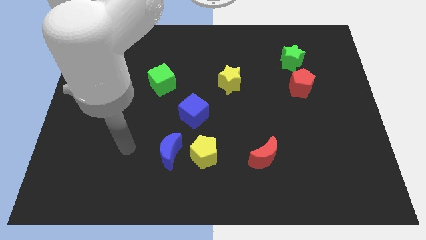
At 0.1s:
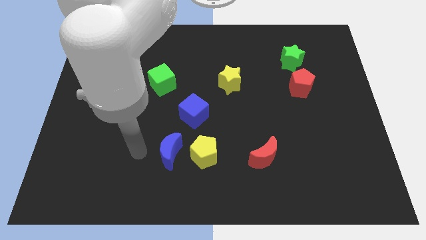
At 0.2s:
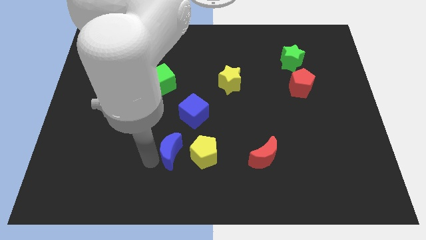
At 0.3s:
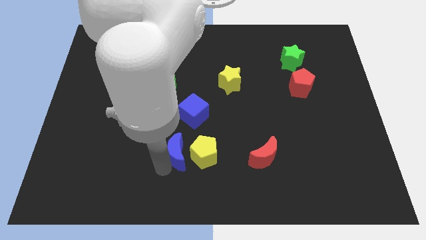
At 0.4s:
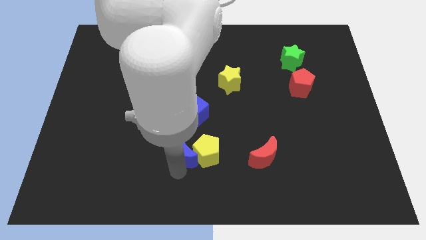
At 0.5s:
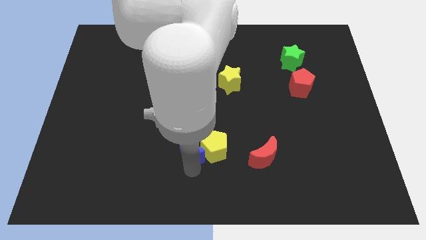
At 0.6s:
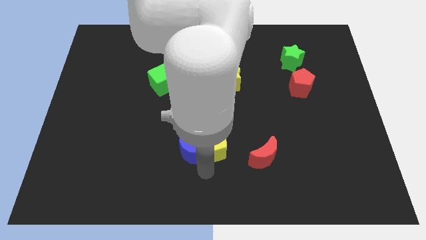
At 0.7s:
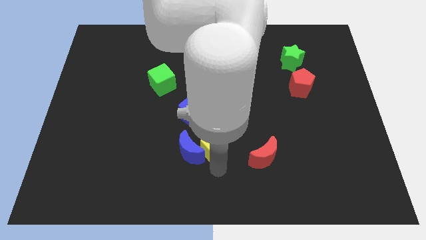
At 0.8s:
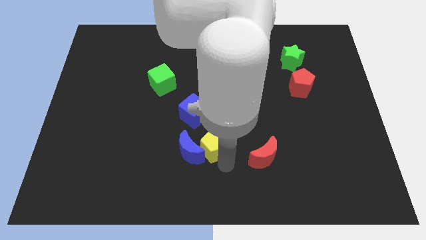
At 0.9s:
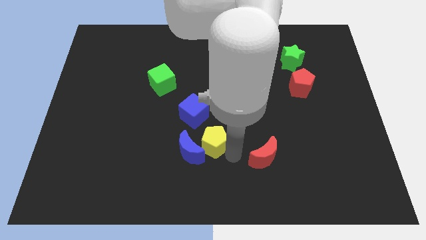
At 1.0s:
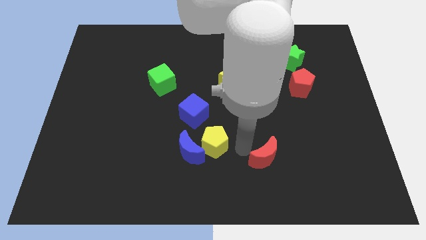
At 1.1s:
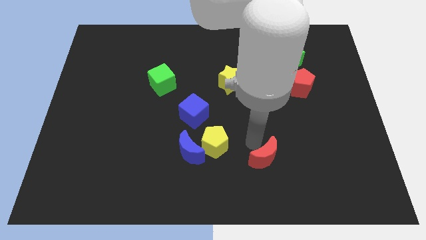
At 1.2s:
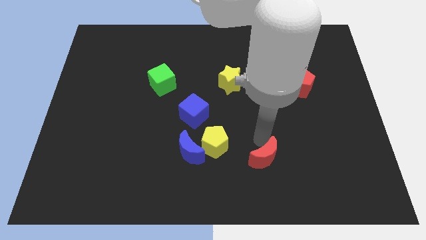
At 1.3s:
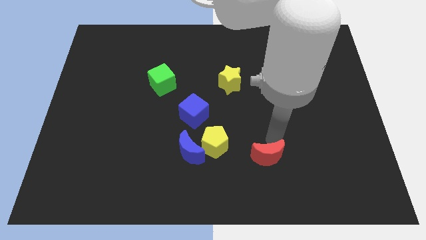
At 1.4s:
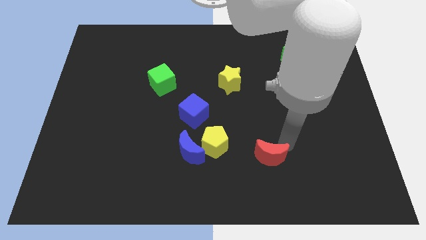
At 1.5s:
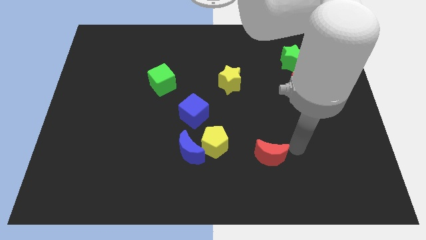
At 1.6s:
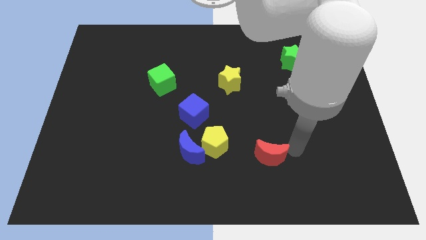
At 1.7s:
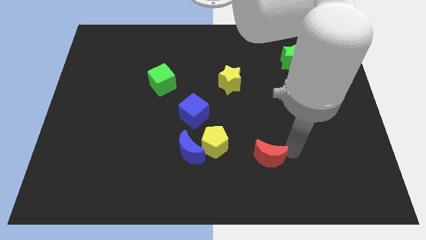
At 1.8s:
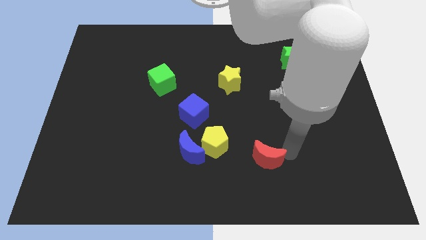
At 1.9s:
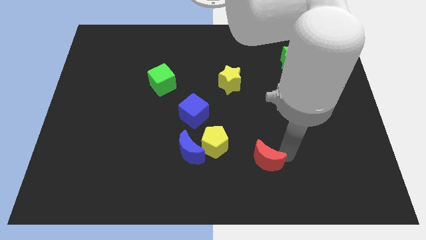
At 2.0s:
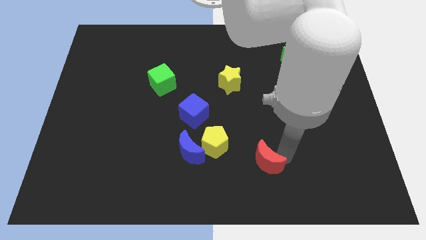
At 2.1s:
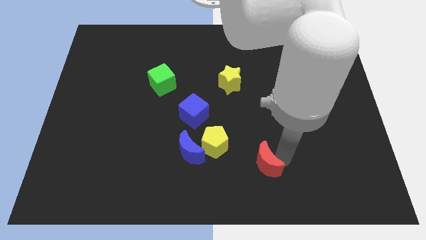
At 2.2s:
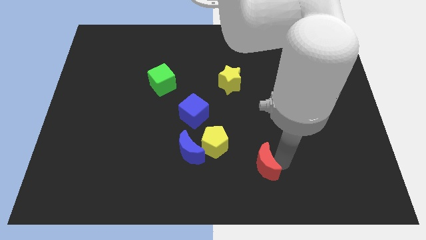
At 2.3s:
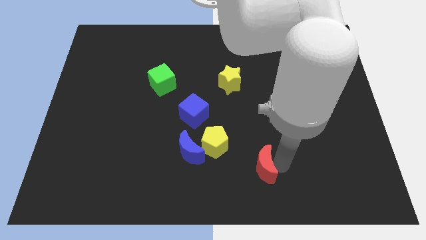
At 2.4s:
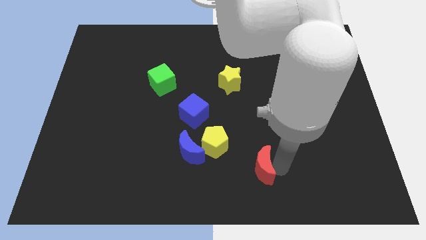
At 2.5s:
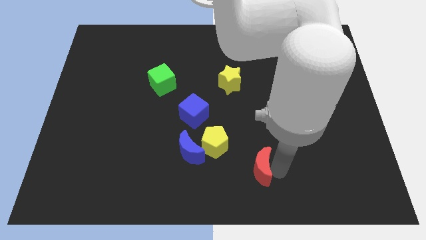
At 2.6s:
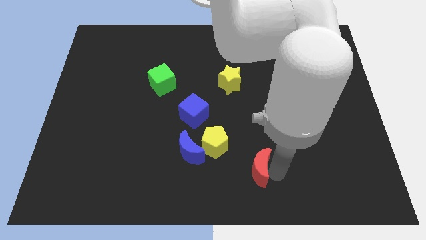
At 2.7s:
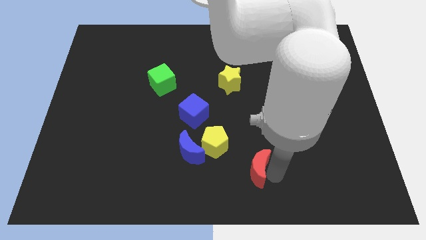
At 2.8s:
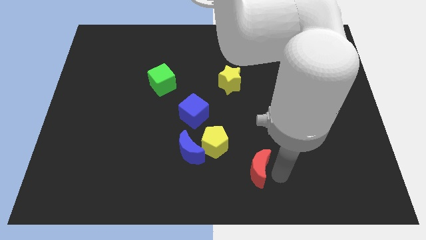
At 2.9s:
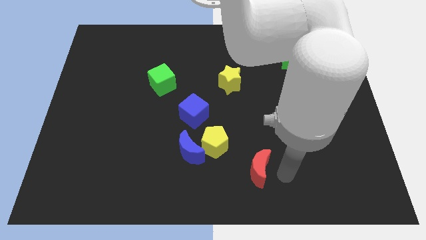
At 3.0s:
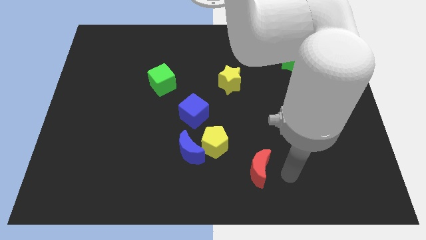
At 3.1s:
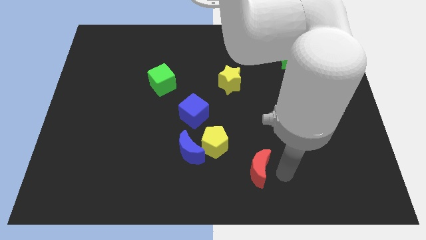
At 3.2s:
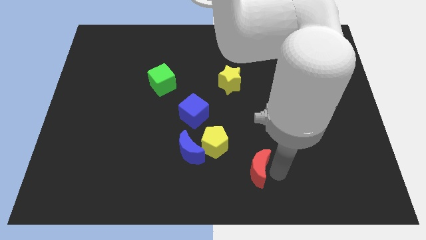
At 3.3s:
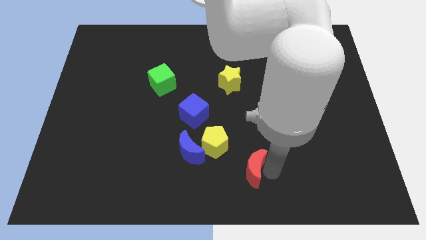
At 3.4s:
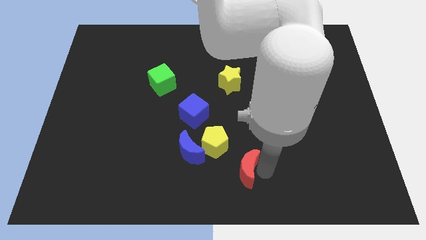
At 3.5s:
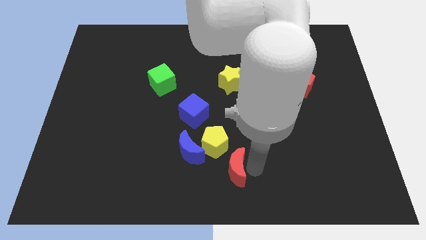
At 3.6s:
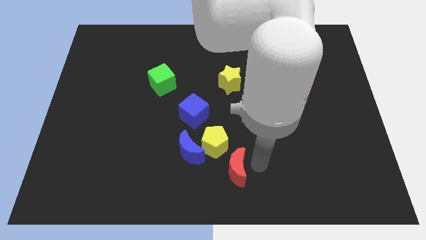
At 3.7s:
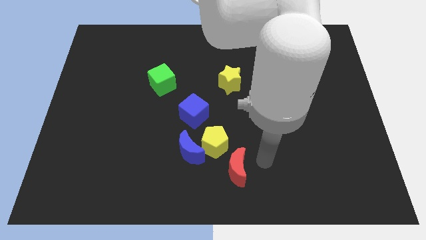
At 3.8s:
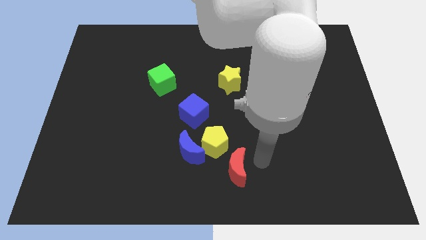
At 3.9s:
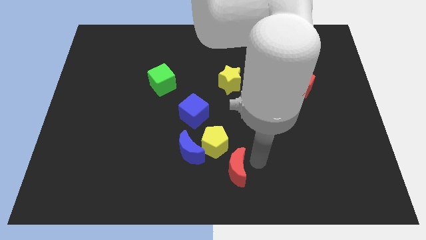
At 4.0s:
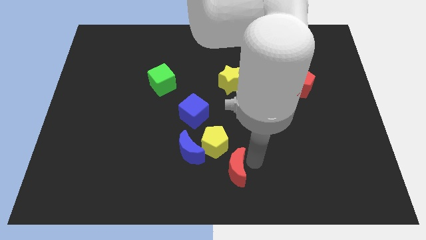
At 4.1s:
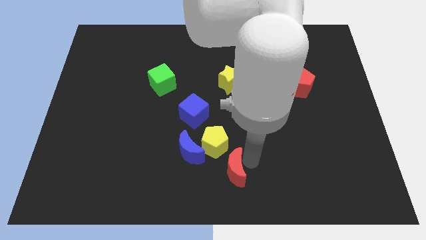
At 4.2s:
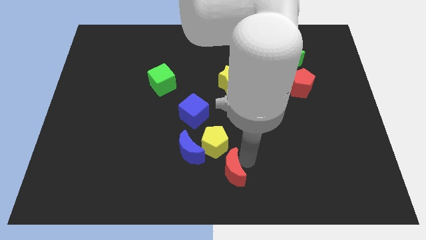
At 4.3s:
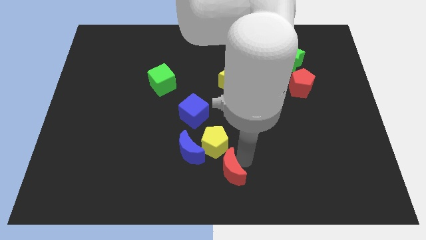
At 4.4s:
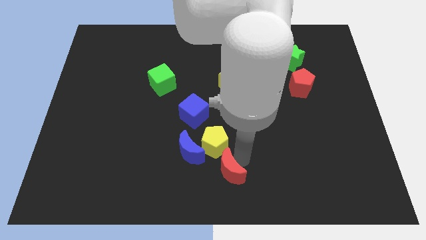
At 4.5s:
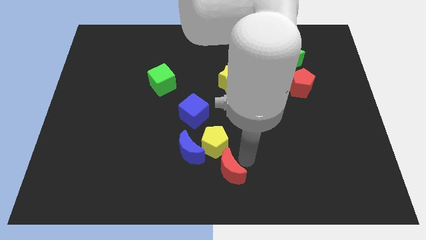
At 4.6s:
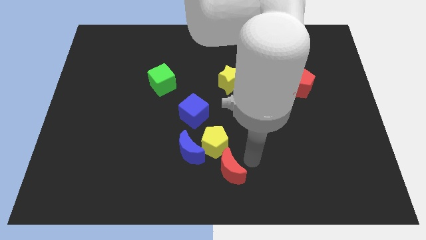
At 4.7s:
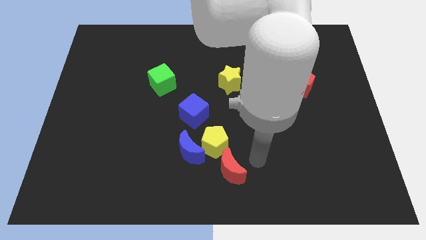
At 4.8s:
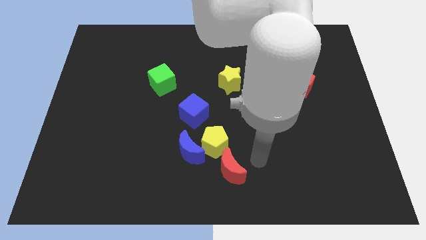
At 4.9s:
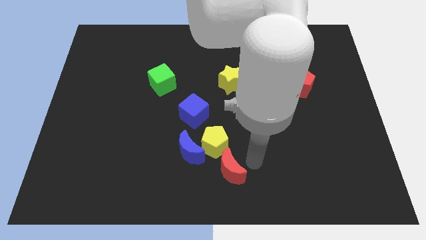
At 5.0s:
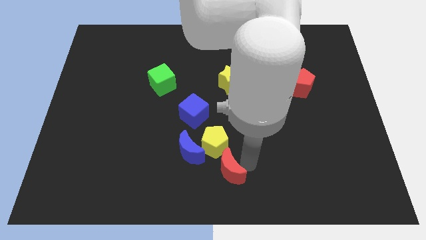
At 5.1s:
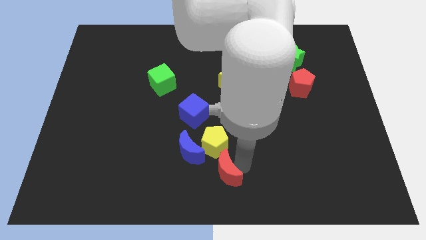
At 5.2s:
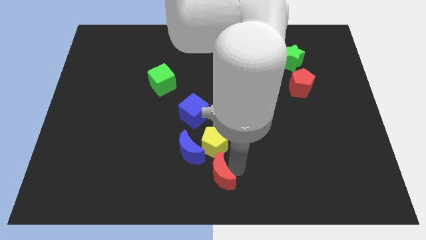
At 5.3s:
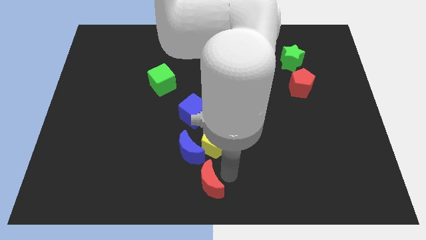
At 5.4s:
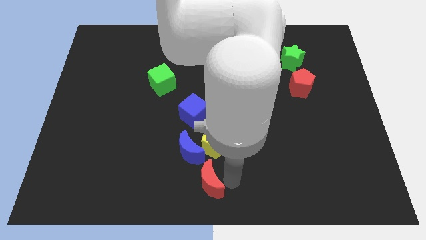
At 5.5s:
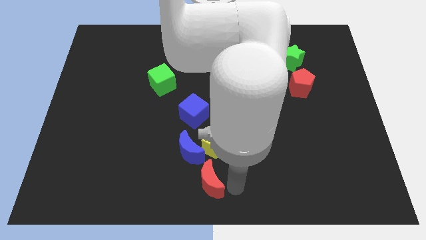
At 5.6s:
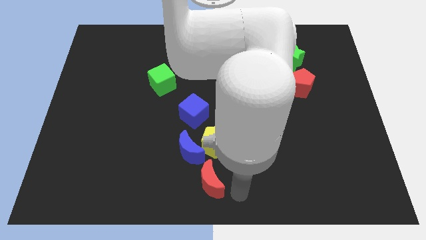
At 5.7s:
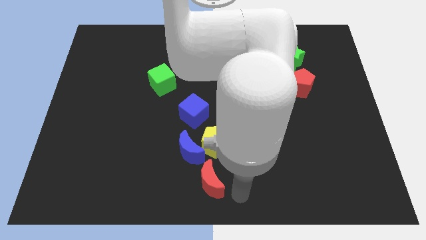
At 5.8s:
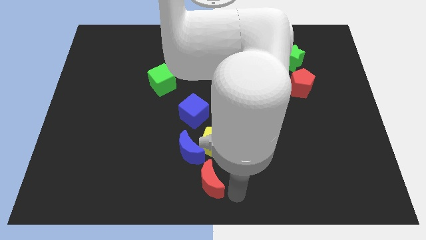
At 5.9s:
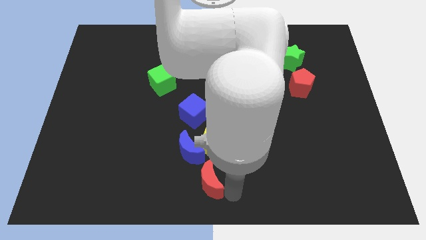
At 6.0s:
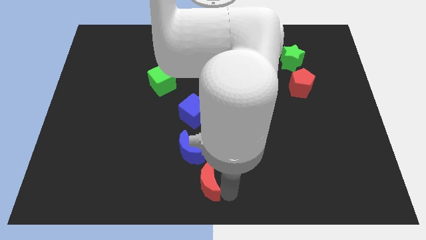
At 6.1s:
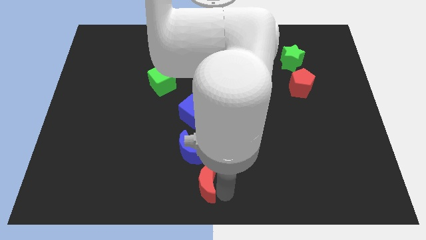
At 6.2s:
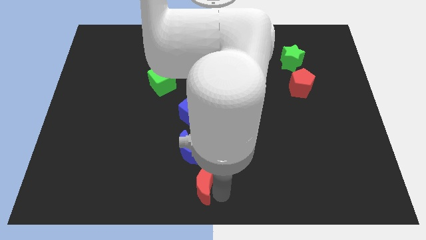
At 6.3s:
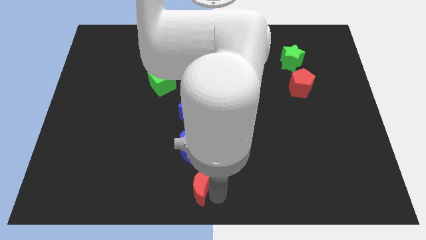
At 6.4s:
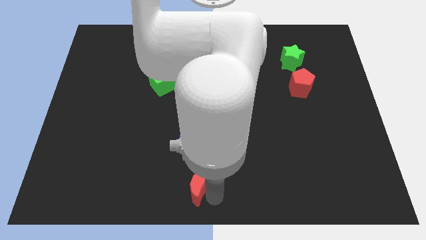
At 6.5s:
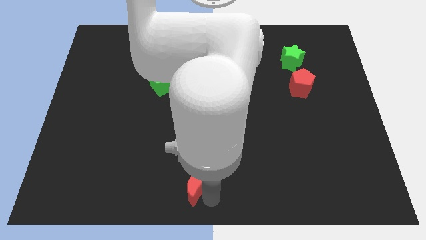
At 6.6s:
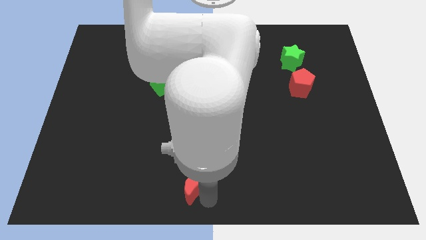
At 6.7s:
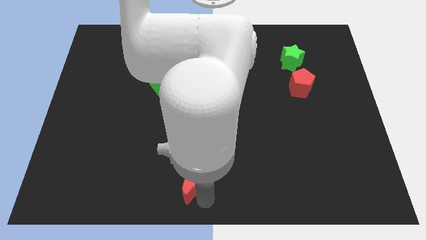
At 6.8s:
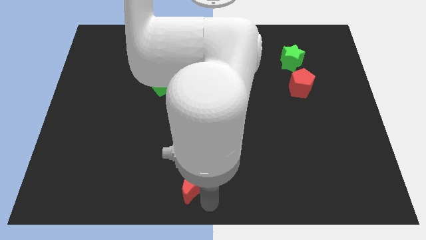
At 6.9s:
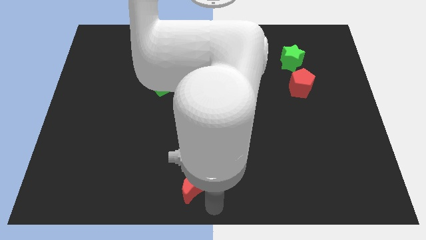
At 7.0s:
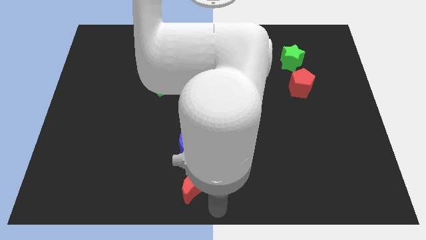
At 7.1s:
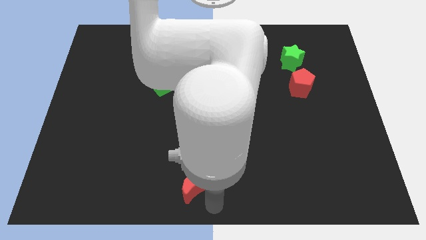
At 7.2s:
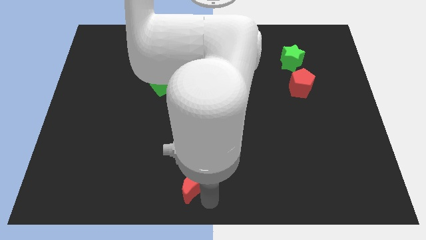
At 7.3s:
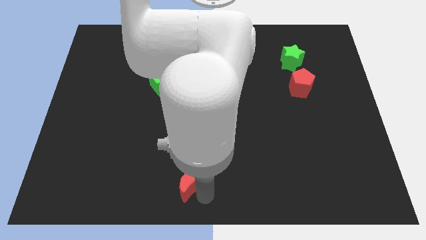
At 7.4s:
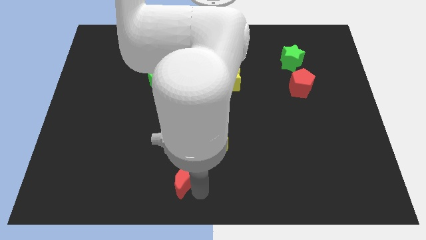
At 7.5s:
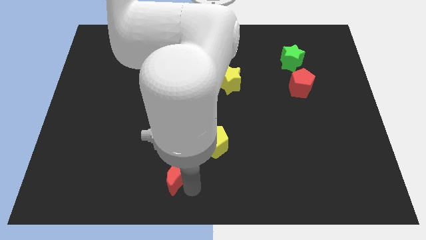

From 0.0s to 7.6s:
put the red moon towards the blue moon
